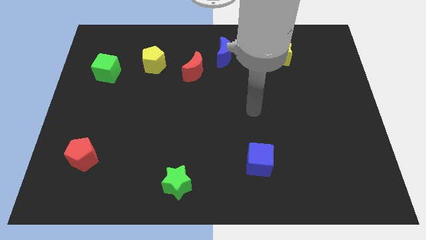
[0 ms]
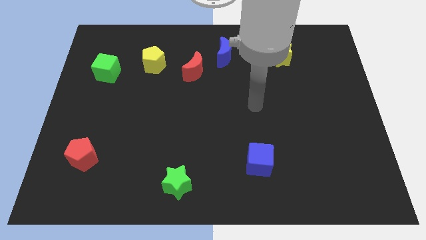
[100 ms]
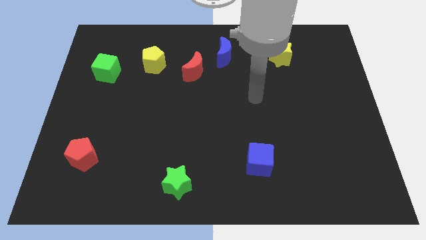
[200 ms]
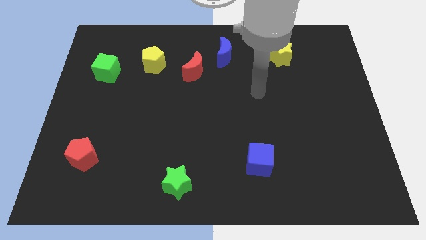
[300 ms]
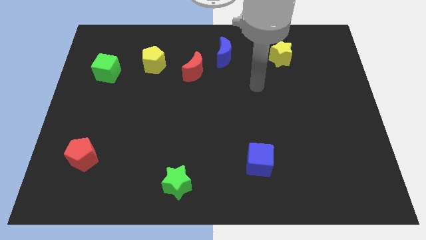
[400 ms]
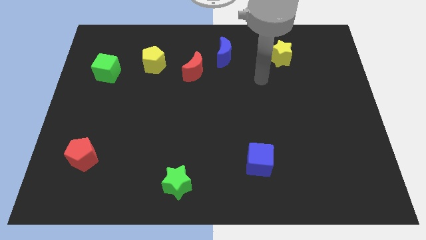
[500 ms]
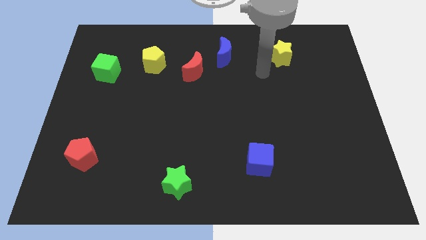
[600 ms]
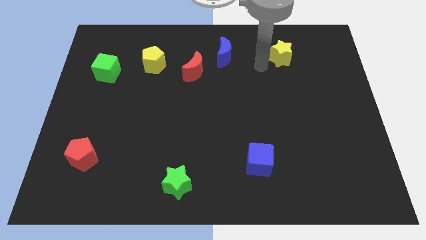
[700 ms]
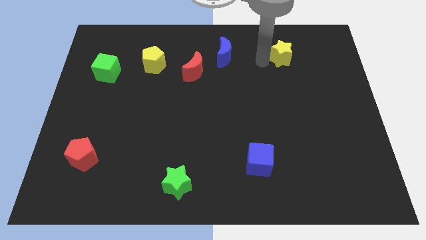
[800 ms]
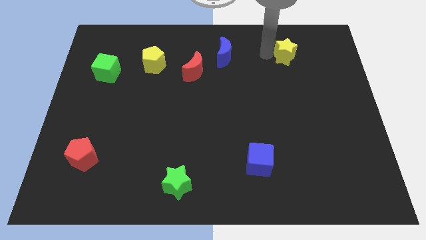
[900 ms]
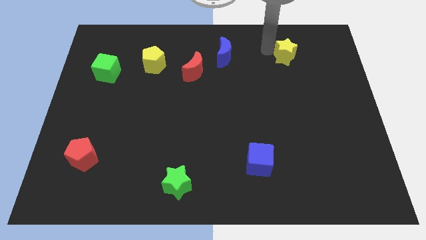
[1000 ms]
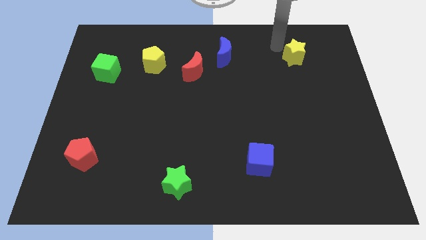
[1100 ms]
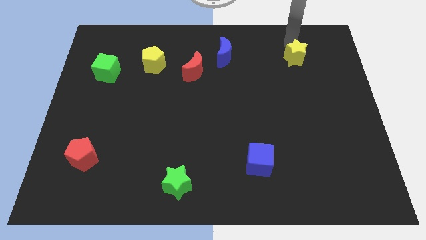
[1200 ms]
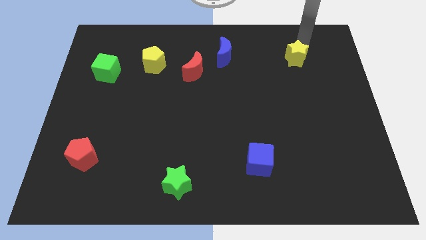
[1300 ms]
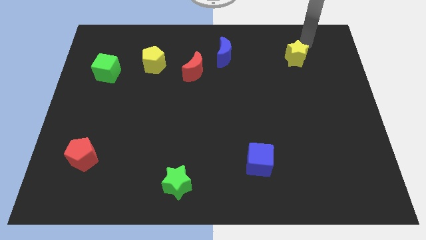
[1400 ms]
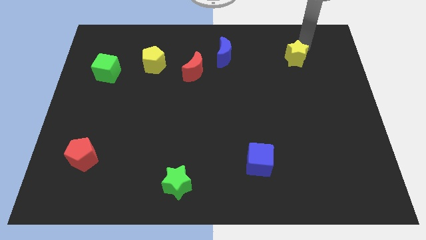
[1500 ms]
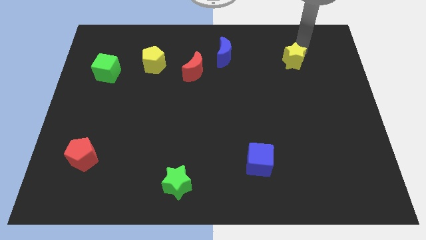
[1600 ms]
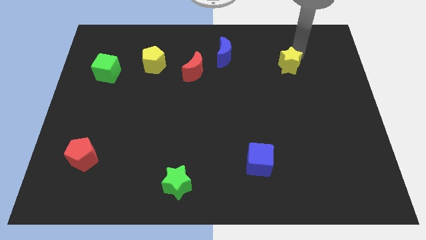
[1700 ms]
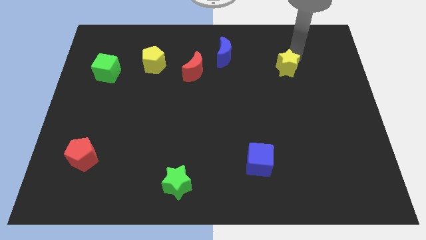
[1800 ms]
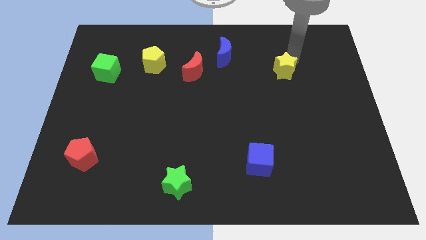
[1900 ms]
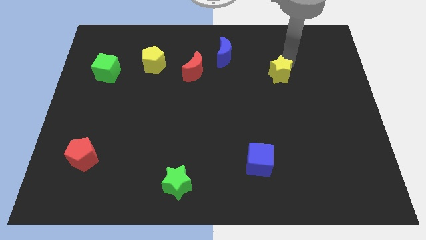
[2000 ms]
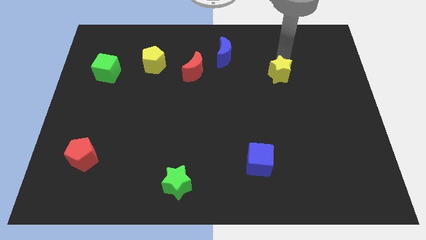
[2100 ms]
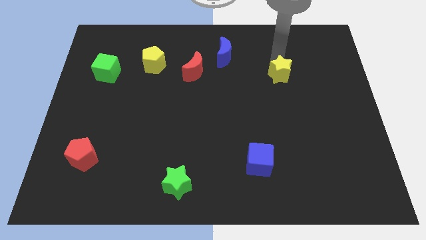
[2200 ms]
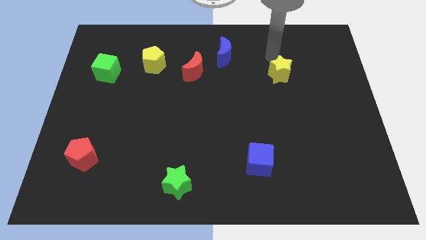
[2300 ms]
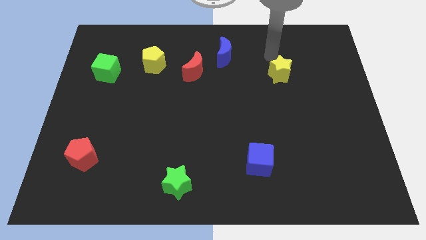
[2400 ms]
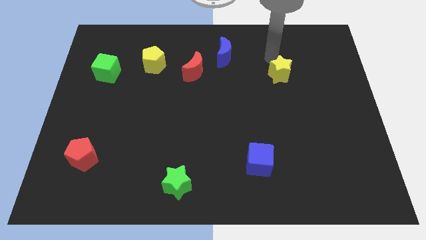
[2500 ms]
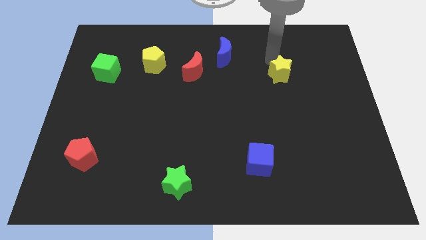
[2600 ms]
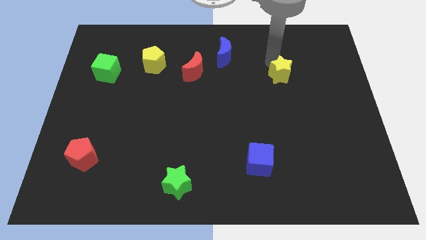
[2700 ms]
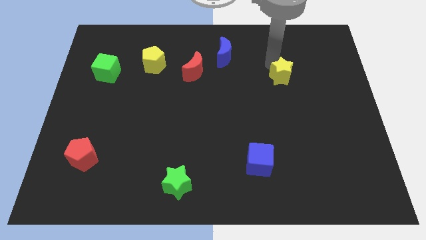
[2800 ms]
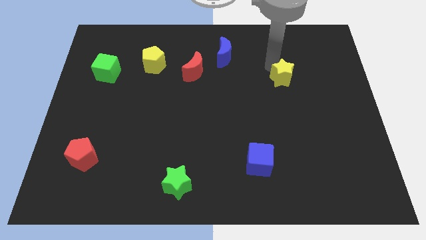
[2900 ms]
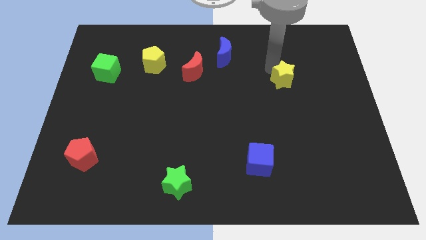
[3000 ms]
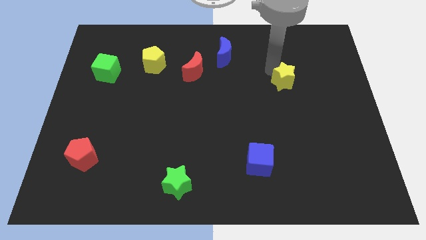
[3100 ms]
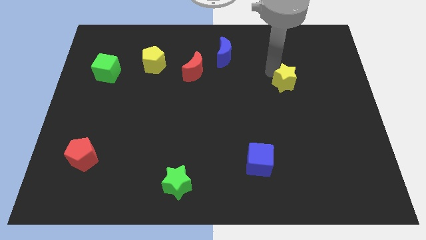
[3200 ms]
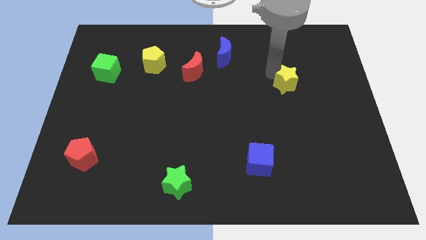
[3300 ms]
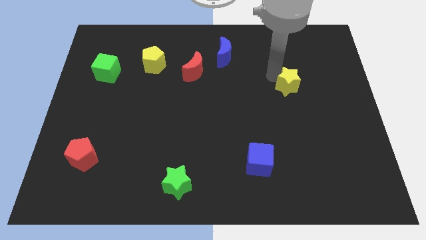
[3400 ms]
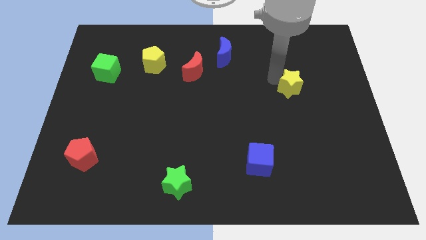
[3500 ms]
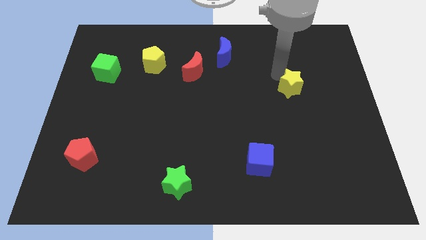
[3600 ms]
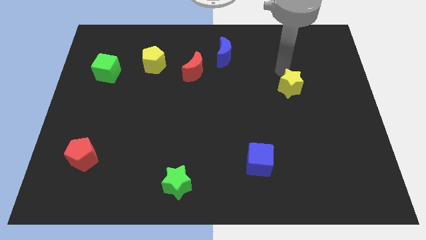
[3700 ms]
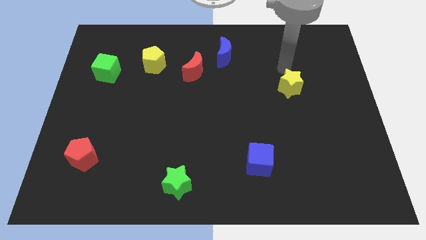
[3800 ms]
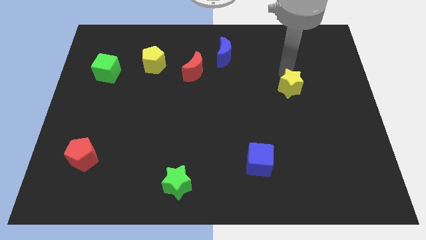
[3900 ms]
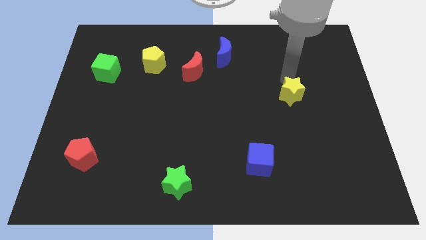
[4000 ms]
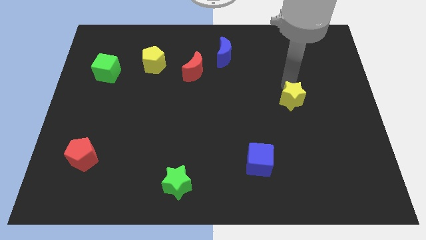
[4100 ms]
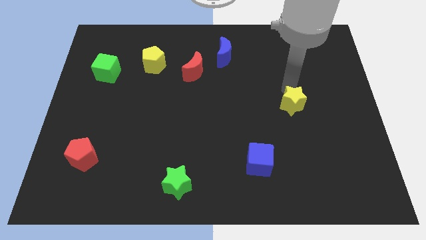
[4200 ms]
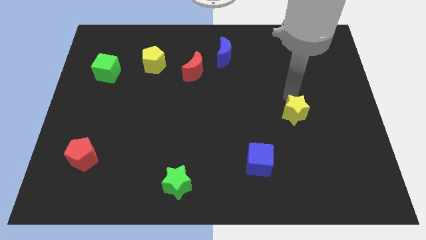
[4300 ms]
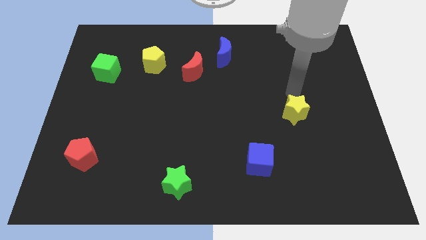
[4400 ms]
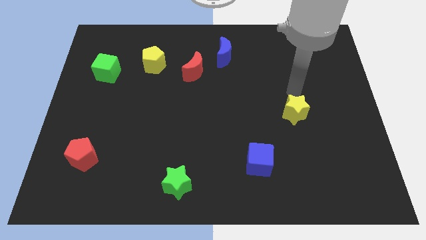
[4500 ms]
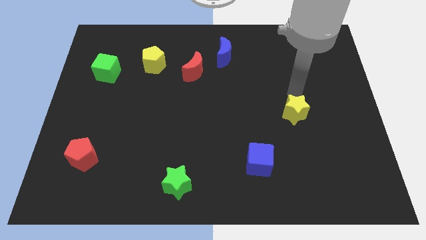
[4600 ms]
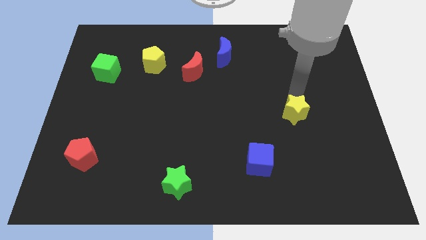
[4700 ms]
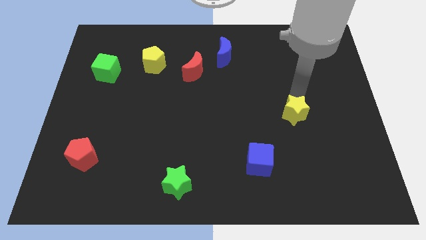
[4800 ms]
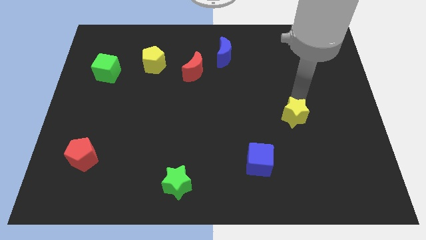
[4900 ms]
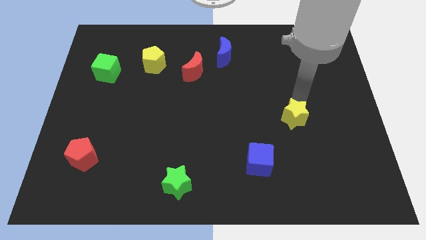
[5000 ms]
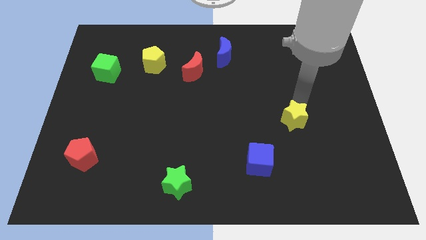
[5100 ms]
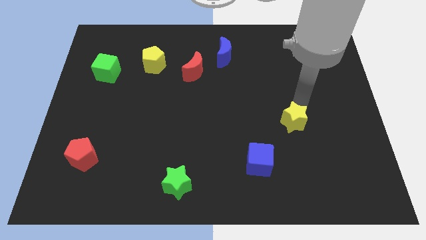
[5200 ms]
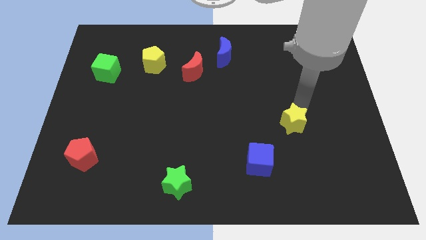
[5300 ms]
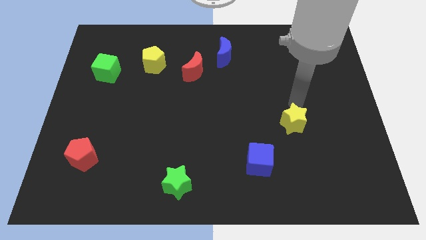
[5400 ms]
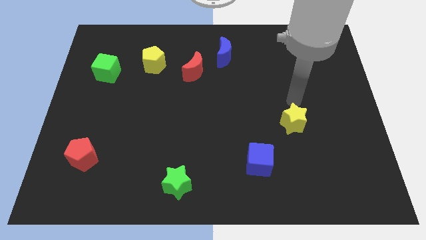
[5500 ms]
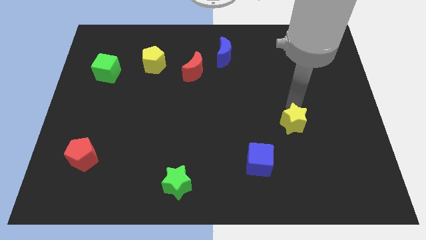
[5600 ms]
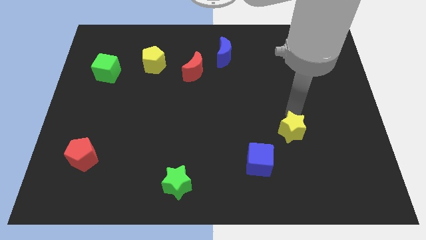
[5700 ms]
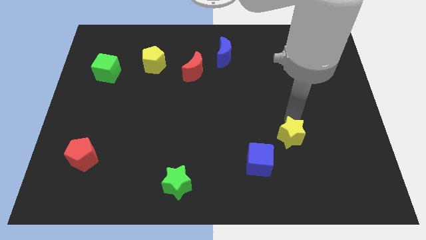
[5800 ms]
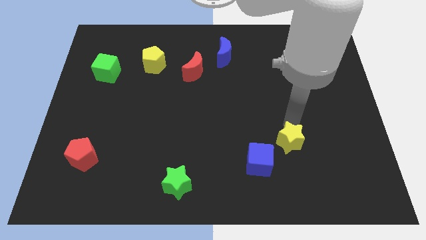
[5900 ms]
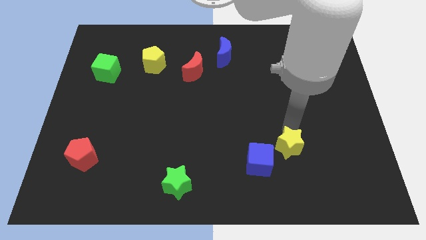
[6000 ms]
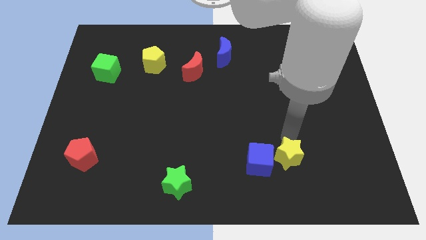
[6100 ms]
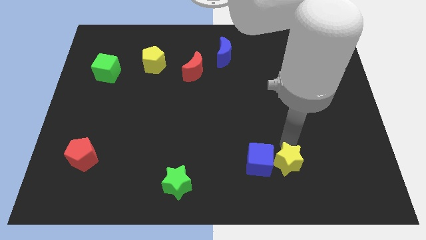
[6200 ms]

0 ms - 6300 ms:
put the yellow star to the bottom right of the blue cube

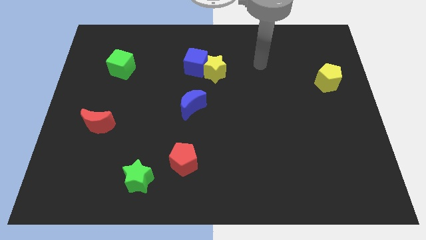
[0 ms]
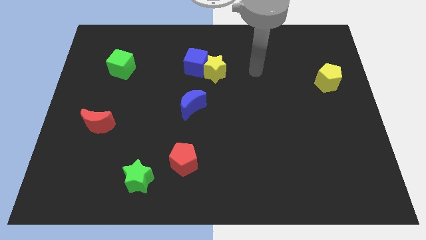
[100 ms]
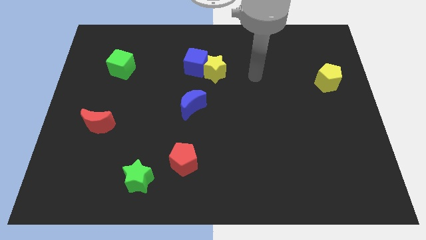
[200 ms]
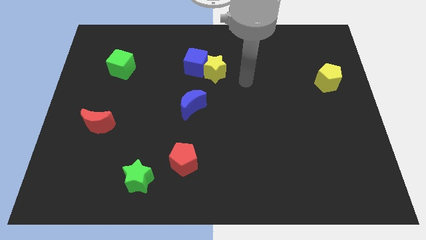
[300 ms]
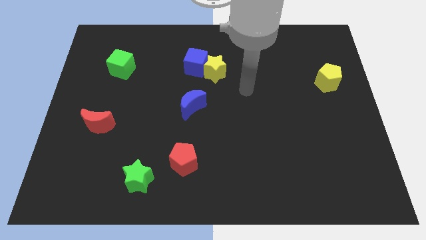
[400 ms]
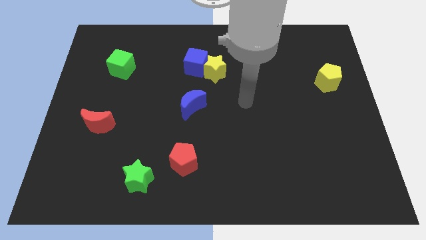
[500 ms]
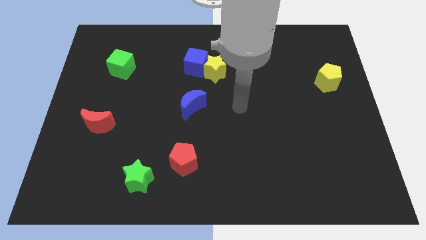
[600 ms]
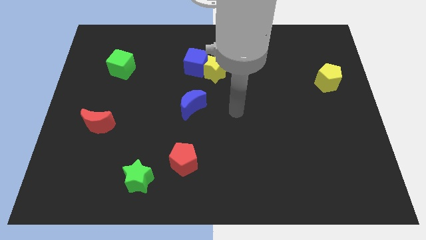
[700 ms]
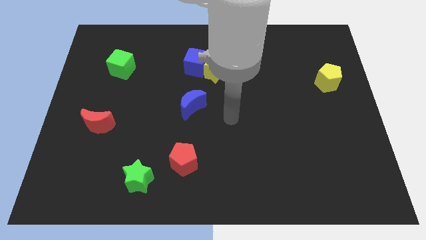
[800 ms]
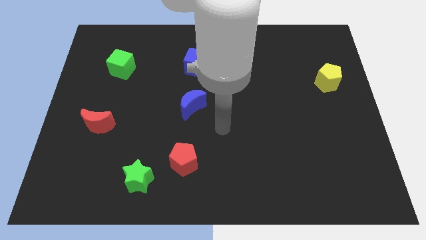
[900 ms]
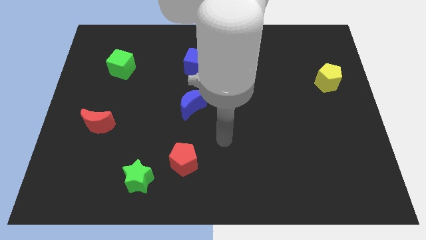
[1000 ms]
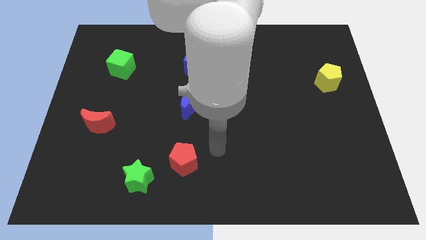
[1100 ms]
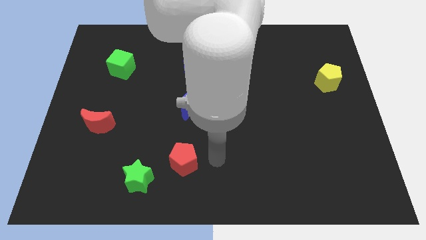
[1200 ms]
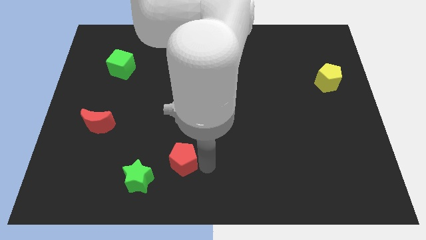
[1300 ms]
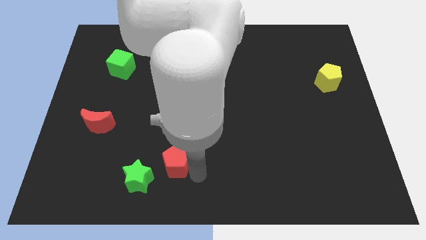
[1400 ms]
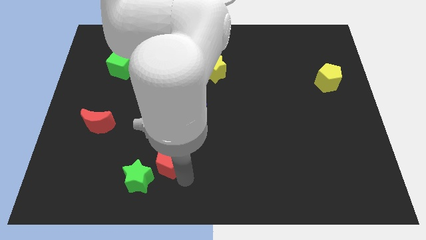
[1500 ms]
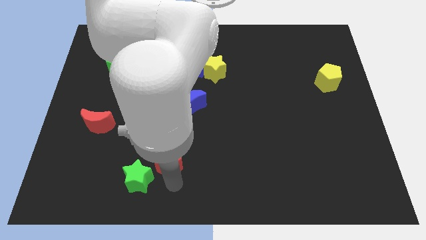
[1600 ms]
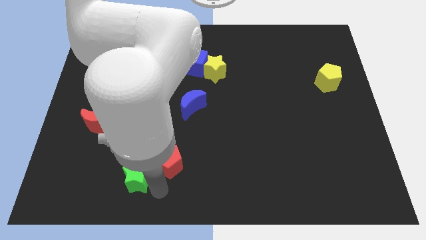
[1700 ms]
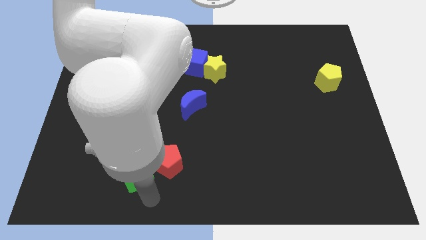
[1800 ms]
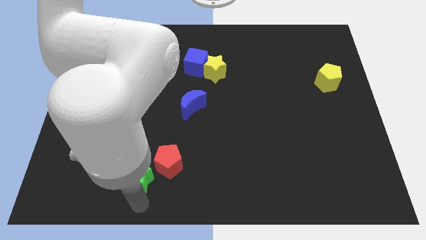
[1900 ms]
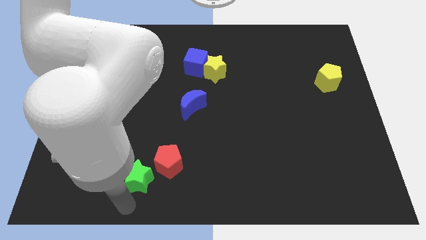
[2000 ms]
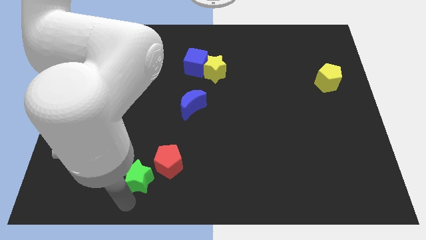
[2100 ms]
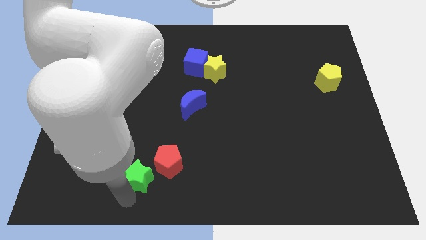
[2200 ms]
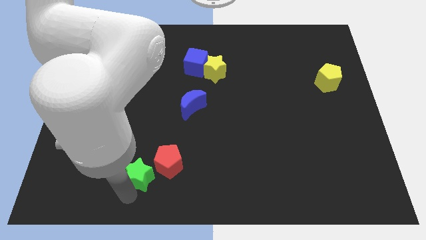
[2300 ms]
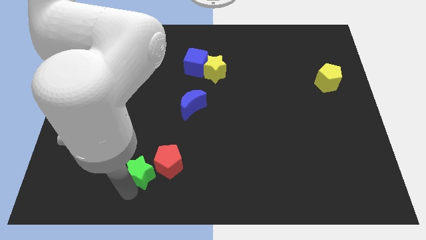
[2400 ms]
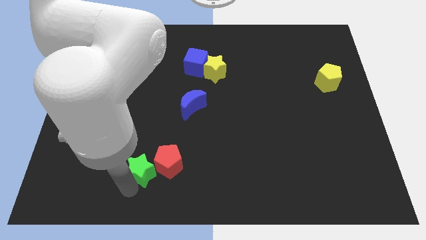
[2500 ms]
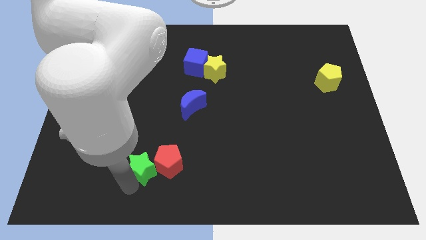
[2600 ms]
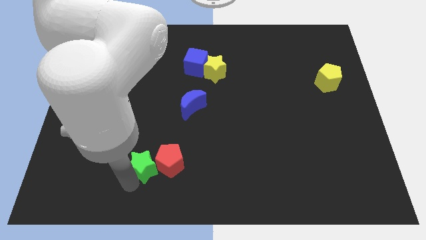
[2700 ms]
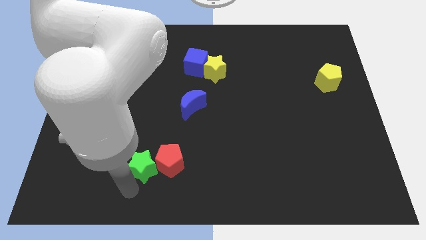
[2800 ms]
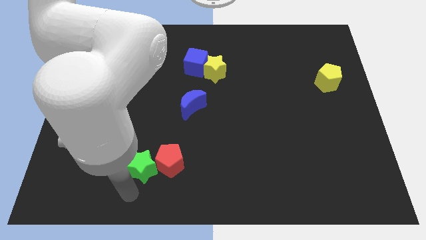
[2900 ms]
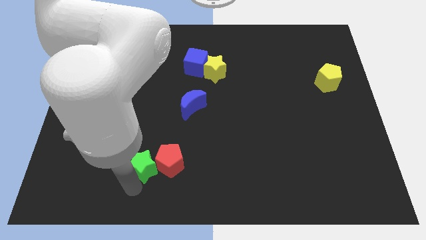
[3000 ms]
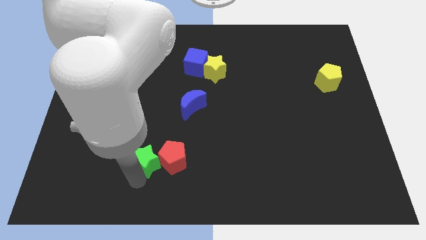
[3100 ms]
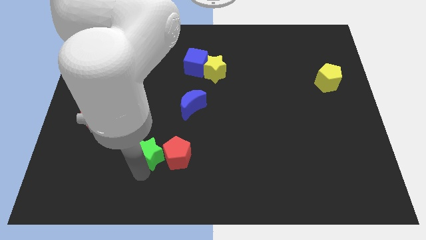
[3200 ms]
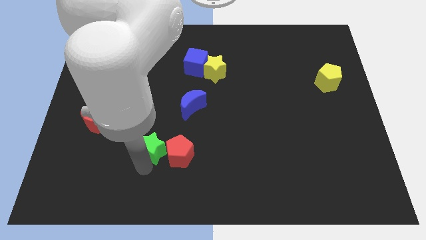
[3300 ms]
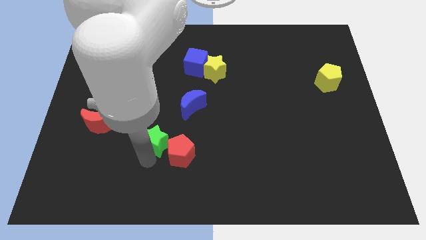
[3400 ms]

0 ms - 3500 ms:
move the green star diagonally down and to the left of the blue moon
